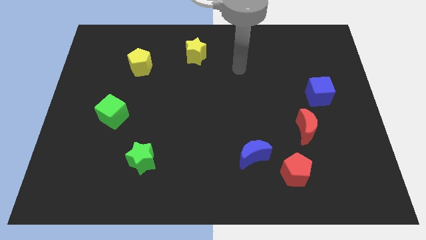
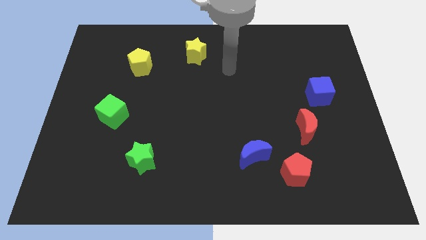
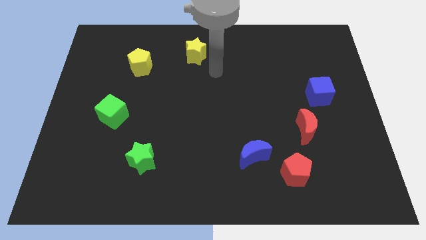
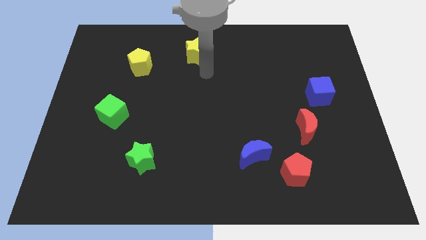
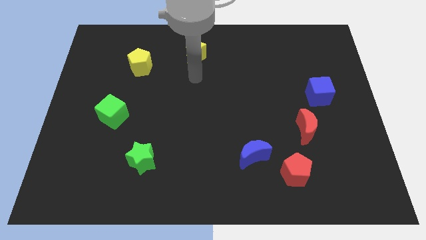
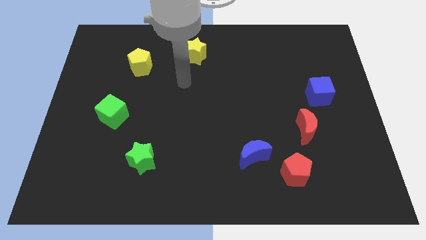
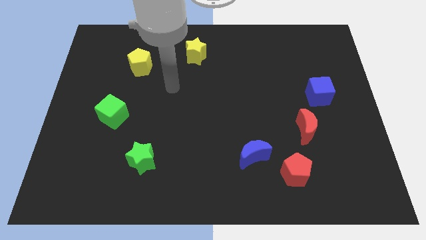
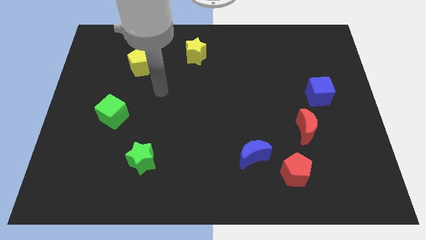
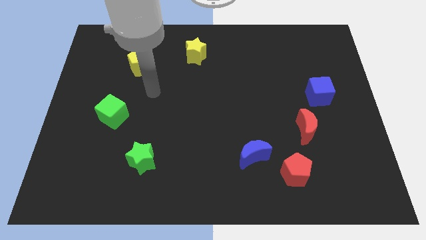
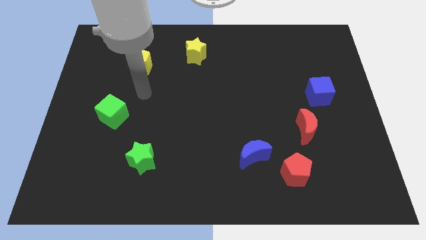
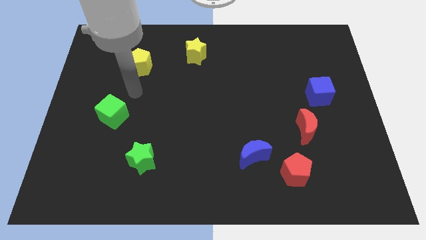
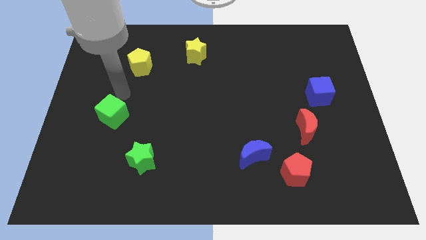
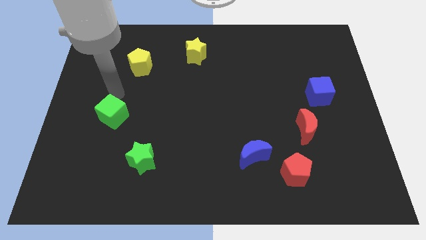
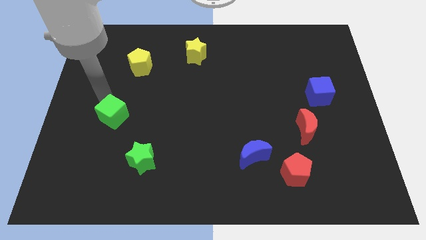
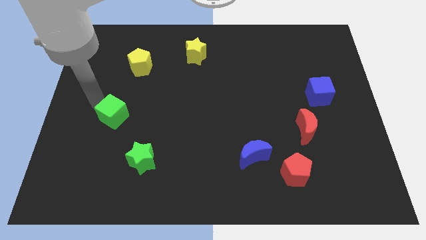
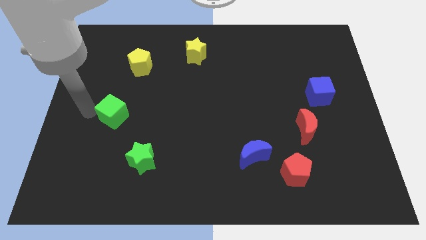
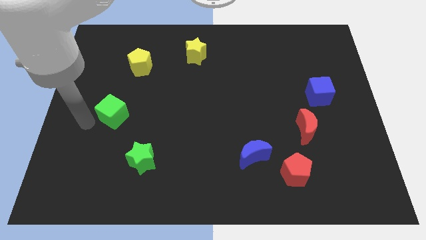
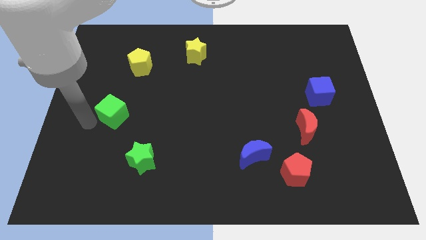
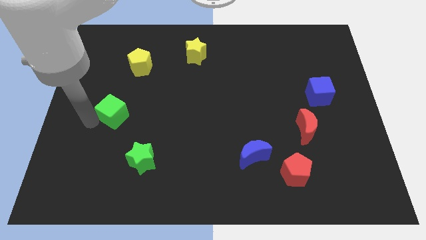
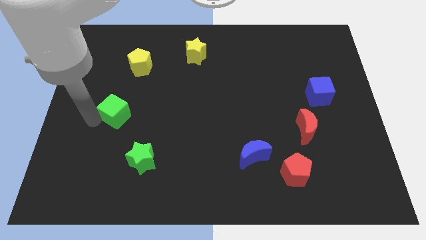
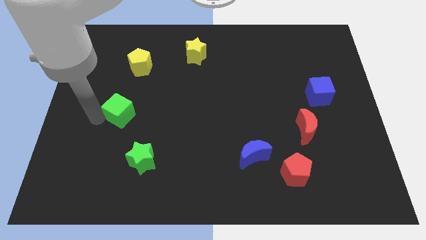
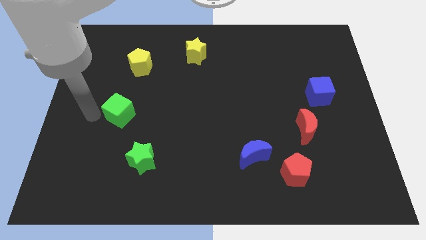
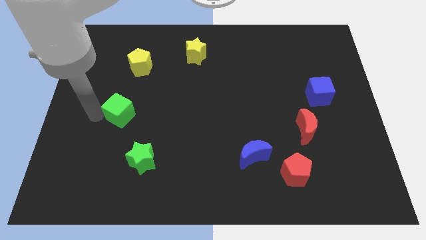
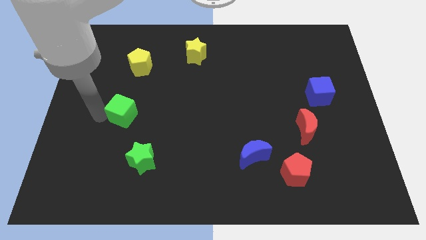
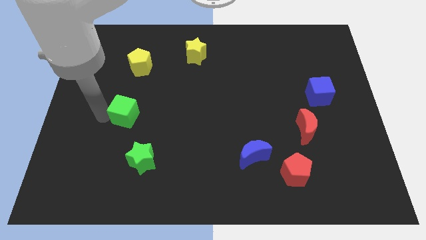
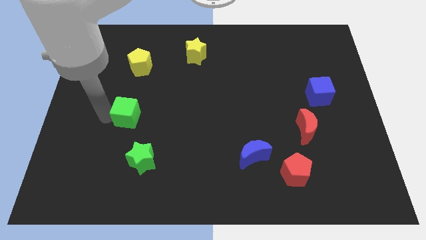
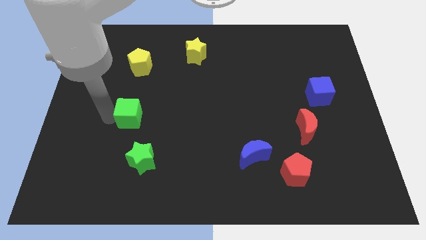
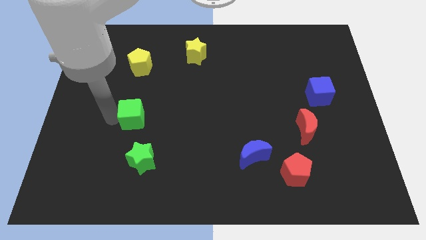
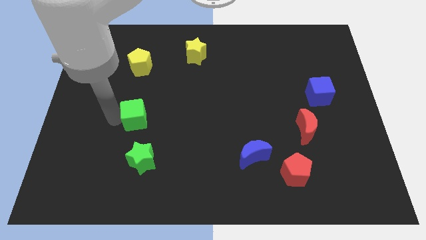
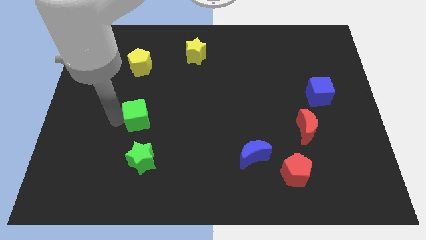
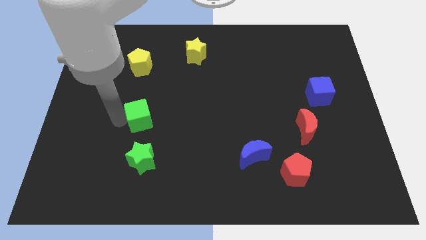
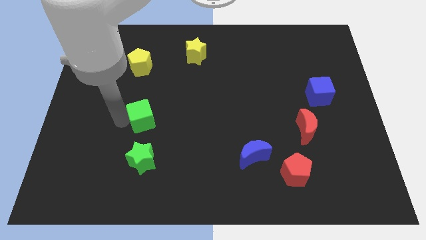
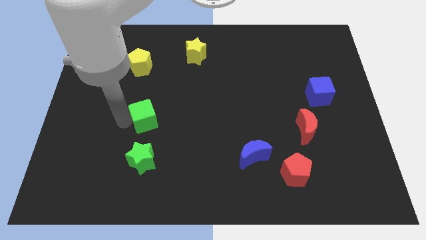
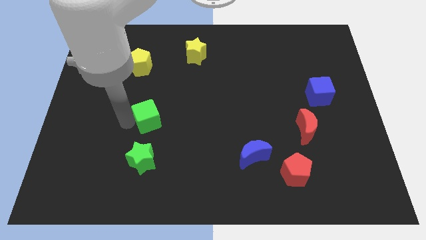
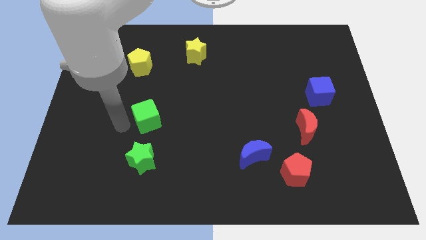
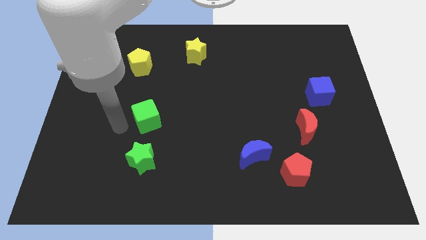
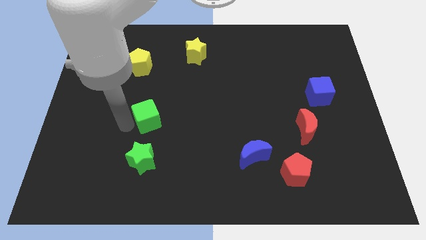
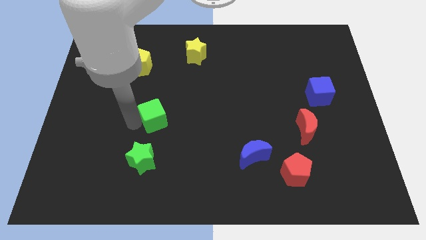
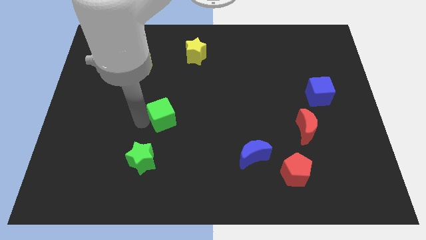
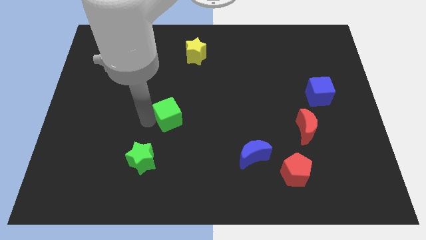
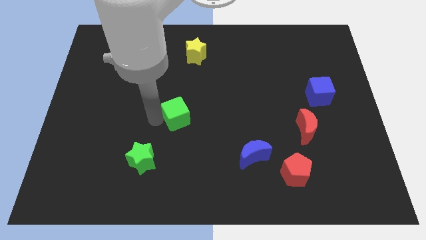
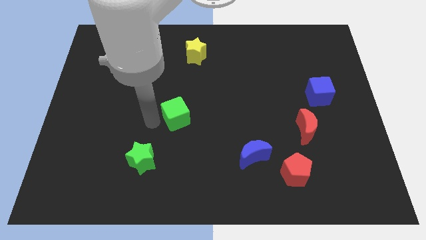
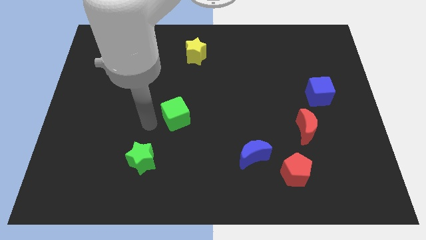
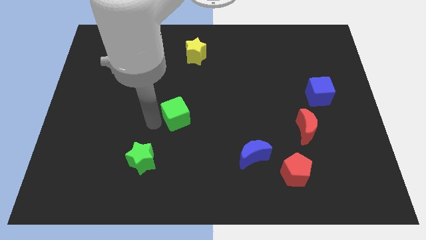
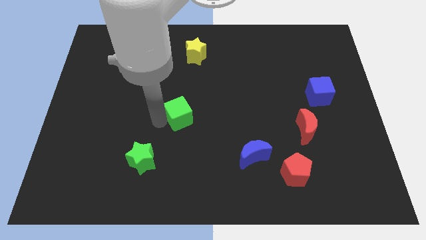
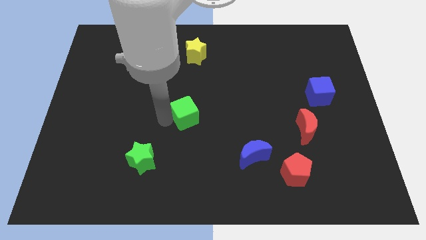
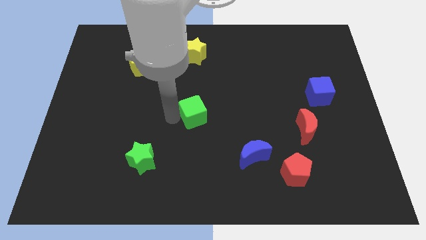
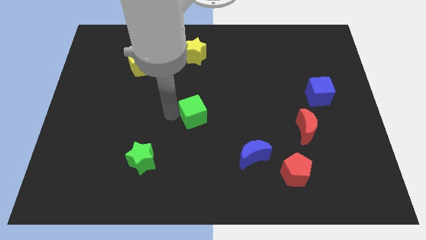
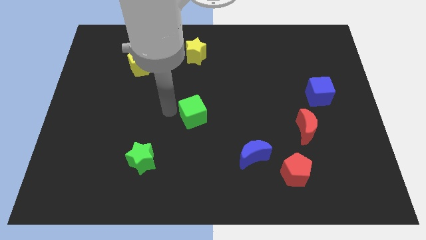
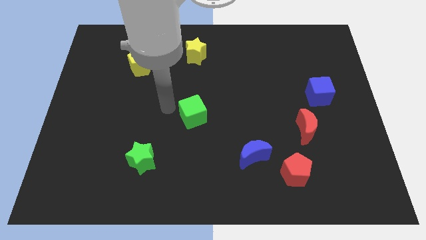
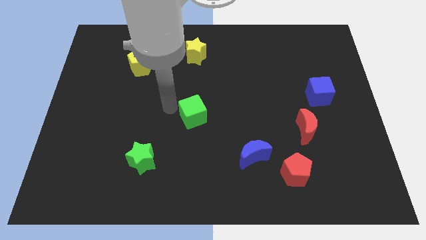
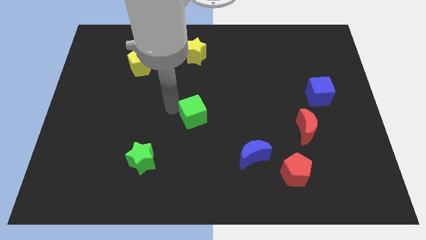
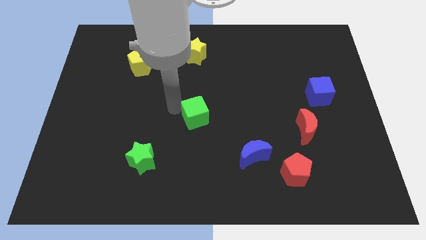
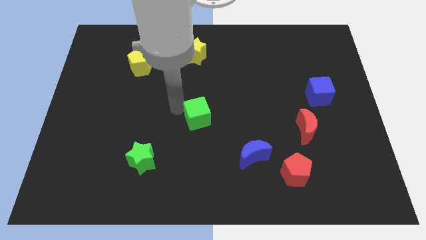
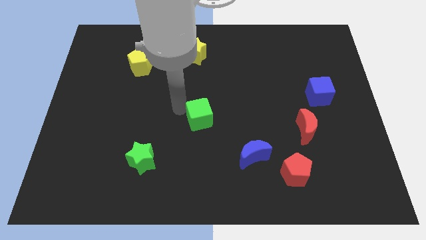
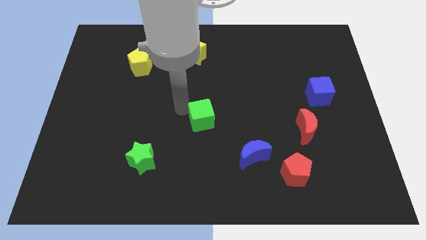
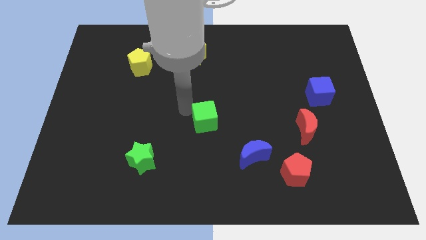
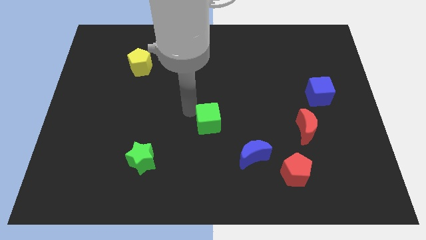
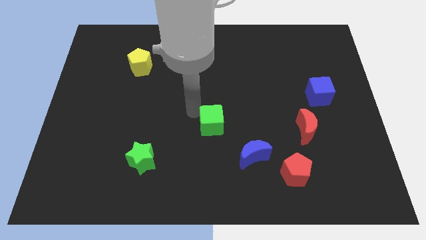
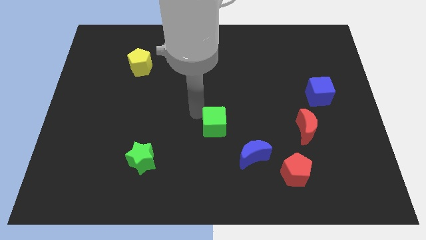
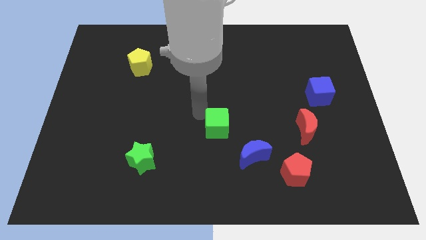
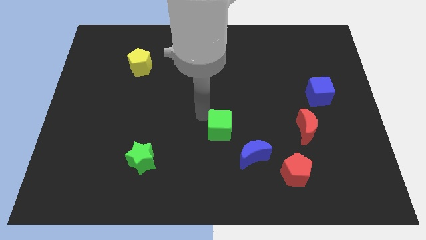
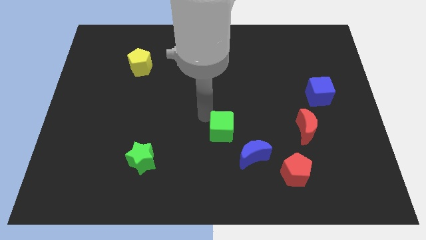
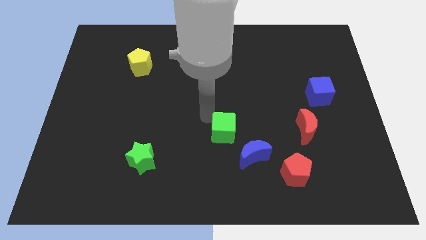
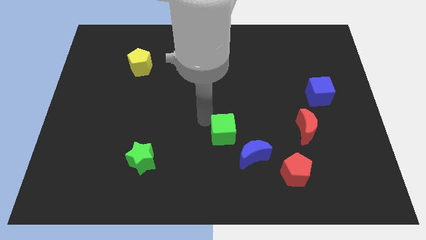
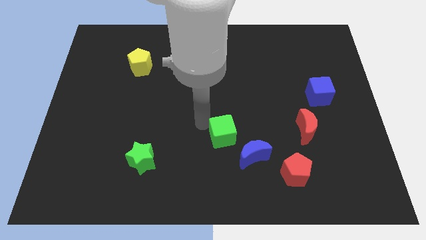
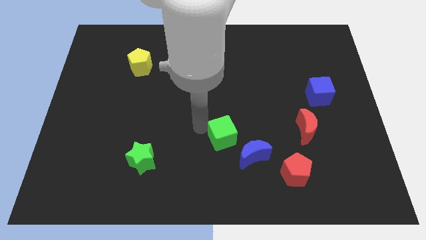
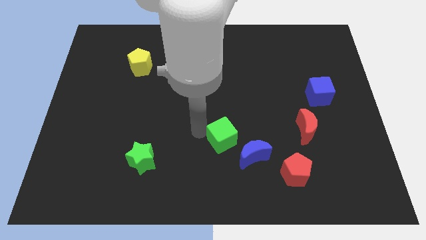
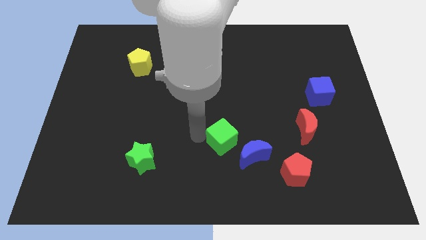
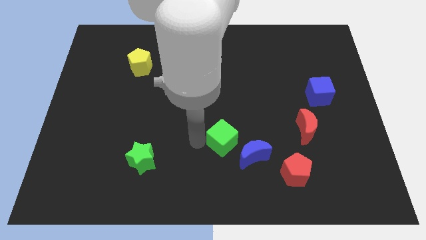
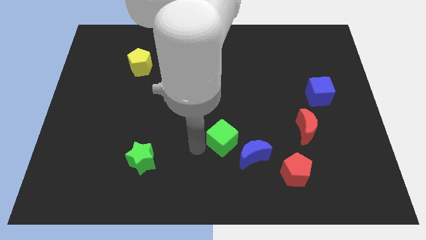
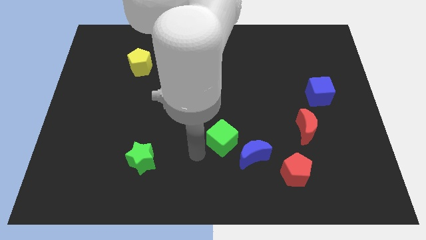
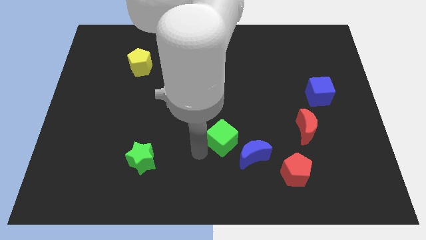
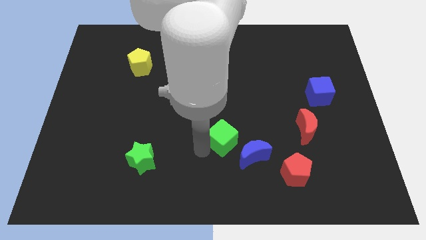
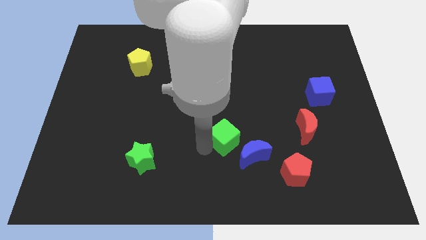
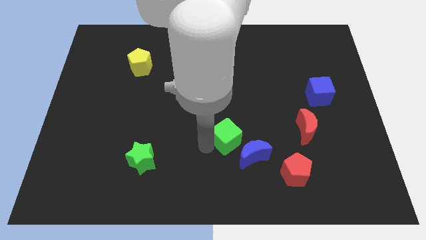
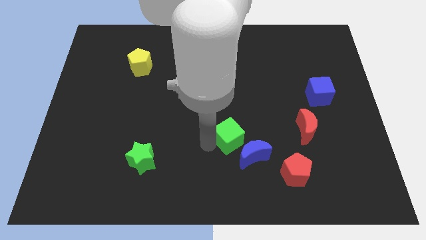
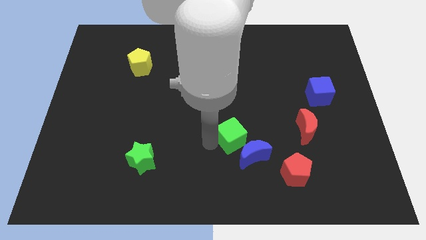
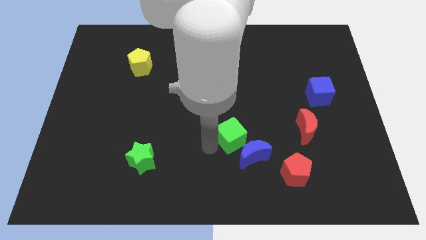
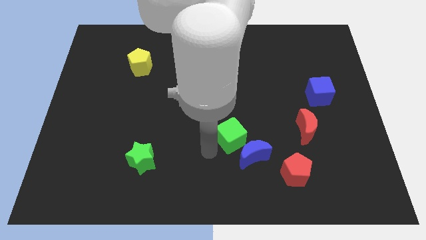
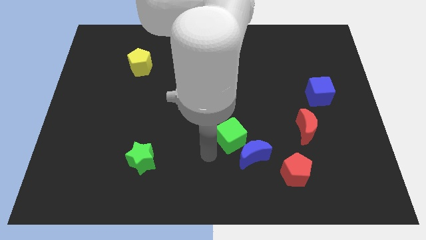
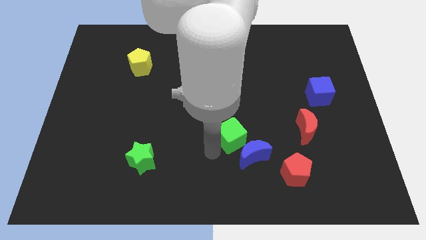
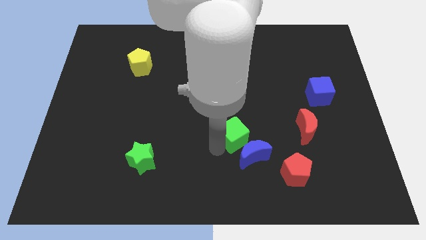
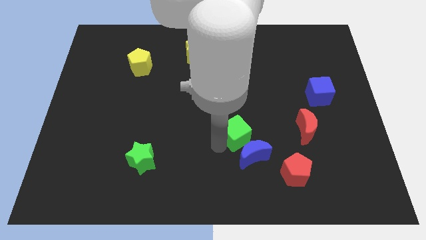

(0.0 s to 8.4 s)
put the green cube to the left of the red moon
